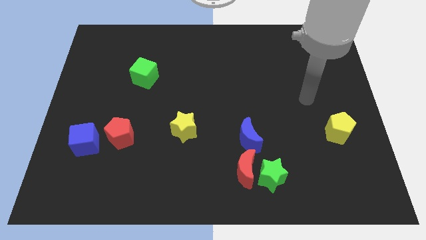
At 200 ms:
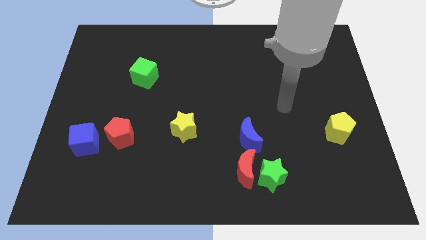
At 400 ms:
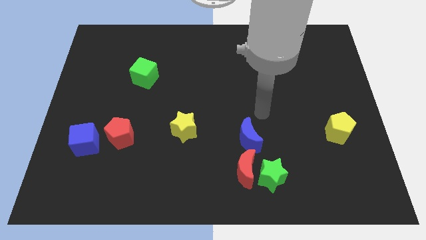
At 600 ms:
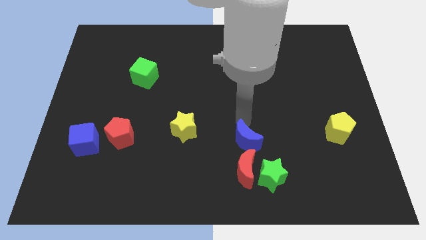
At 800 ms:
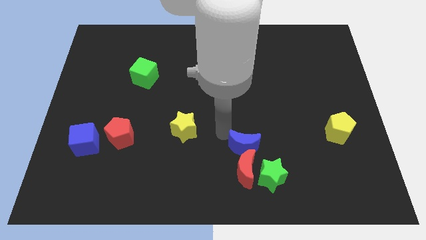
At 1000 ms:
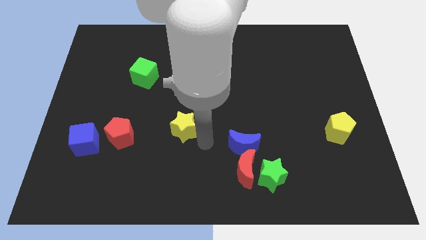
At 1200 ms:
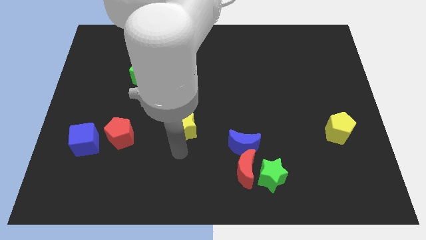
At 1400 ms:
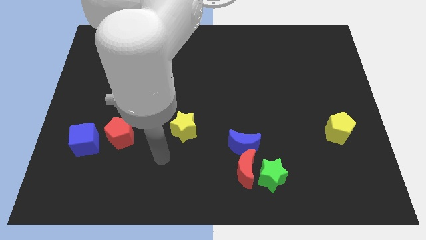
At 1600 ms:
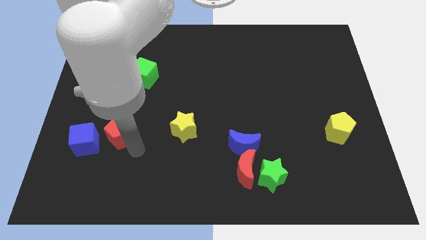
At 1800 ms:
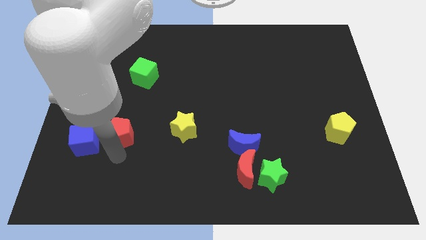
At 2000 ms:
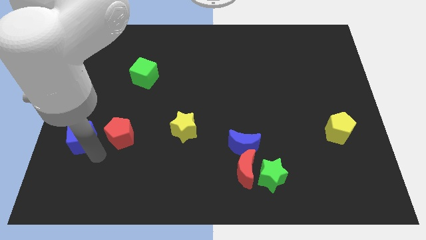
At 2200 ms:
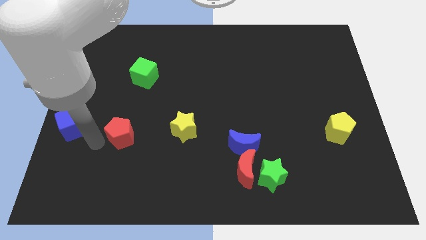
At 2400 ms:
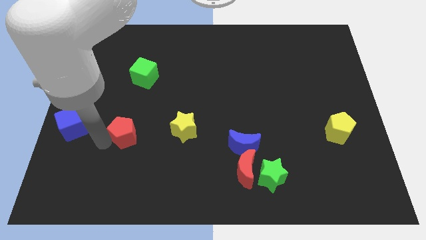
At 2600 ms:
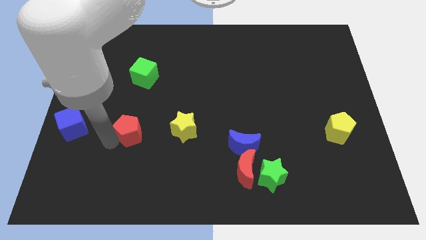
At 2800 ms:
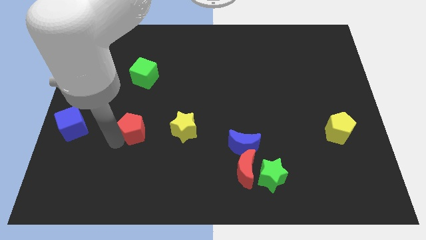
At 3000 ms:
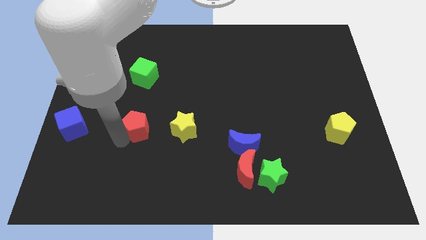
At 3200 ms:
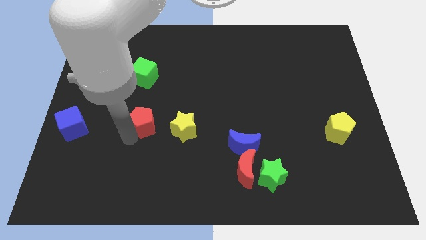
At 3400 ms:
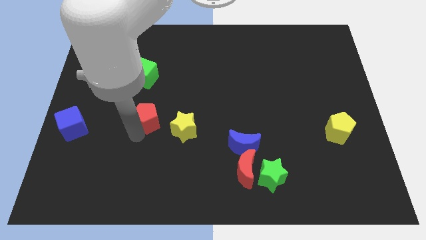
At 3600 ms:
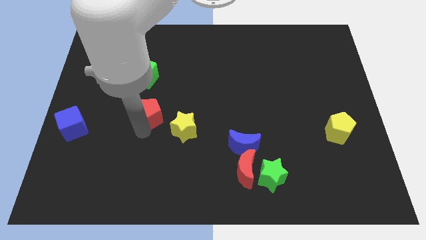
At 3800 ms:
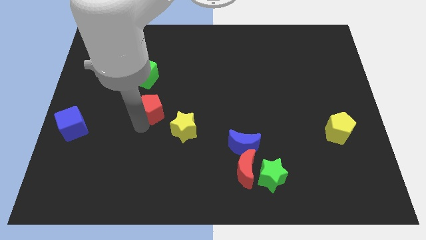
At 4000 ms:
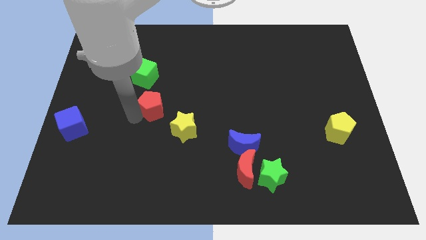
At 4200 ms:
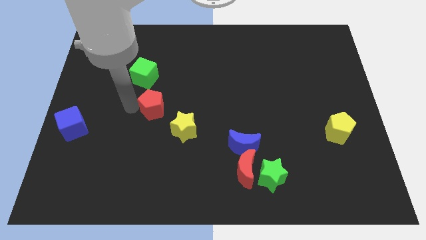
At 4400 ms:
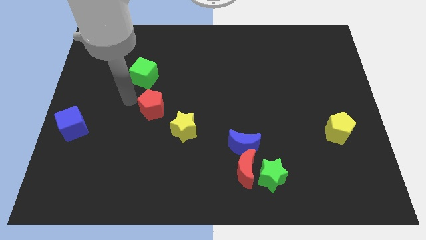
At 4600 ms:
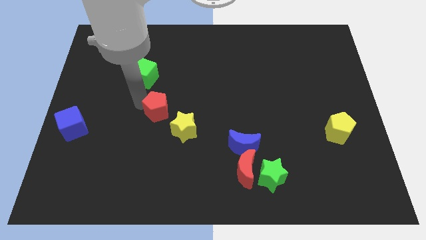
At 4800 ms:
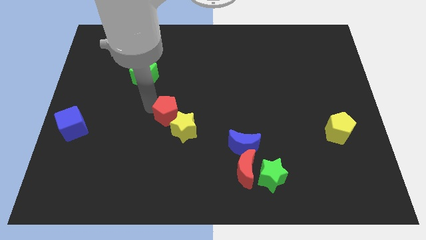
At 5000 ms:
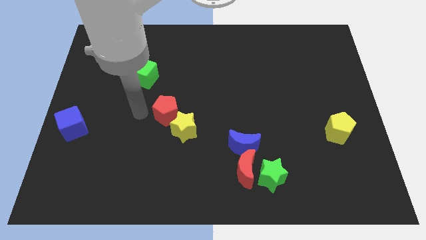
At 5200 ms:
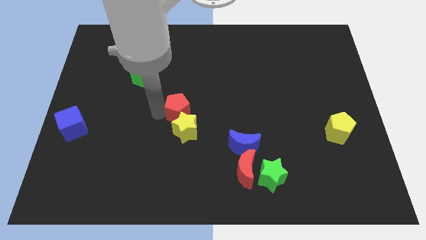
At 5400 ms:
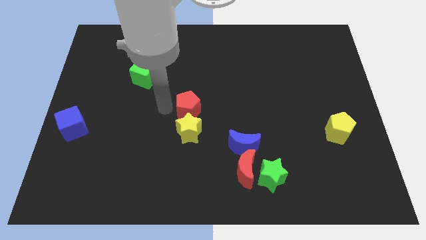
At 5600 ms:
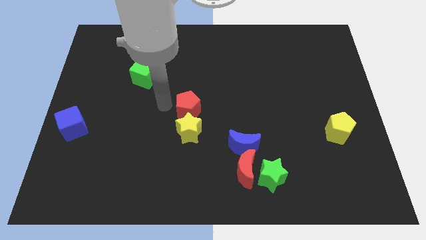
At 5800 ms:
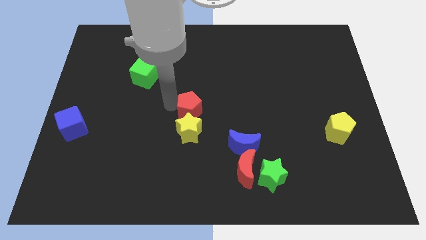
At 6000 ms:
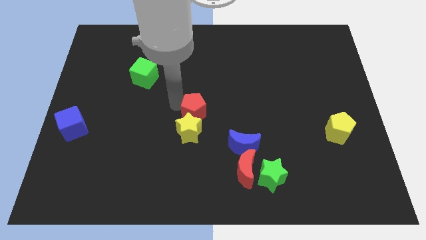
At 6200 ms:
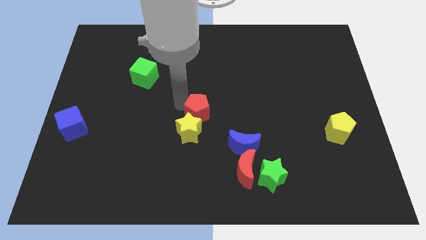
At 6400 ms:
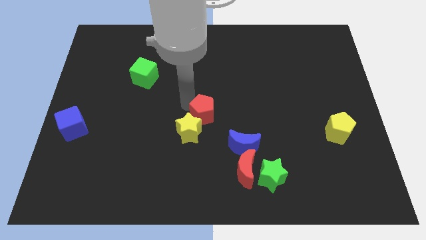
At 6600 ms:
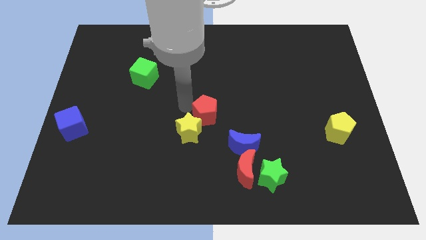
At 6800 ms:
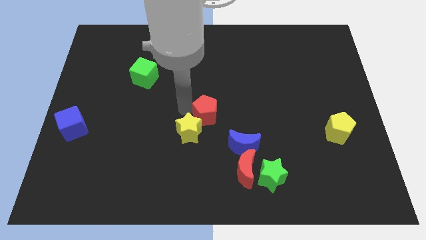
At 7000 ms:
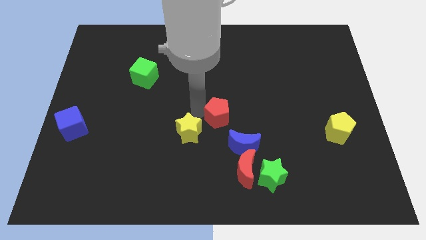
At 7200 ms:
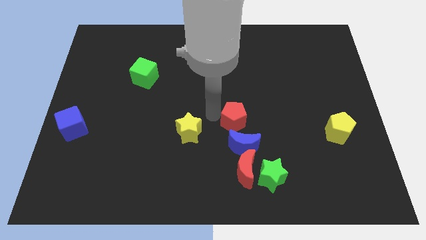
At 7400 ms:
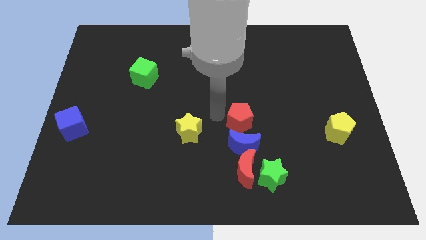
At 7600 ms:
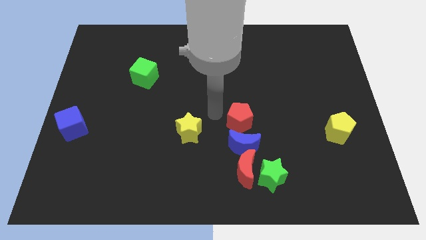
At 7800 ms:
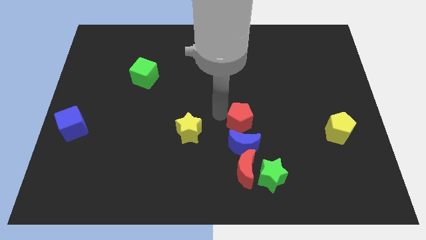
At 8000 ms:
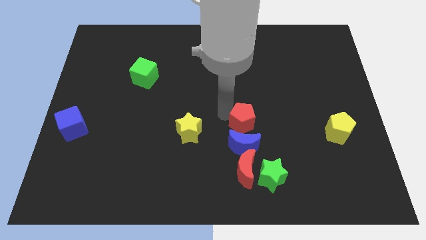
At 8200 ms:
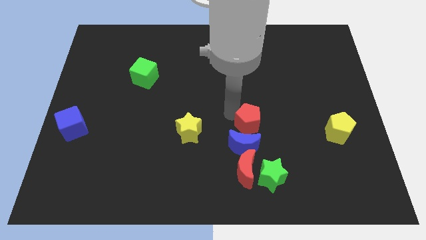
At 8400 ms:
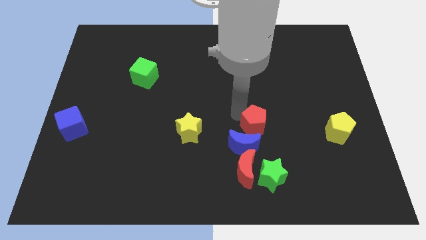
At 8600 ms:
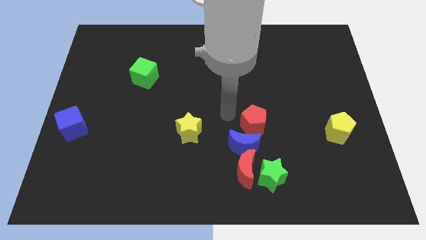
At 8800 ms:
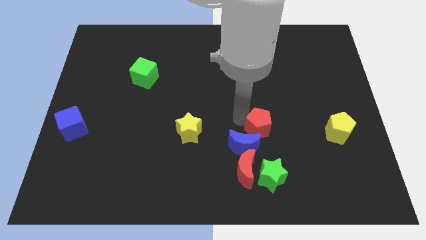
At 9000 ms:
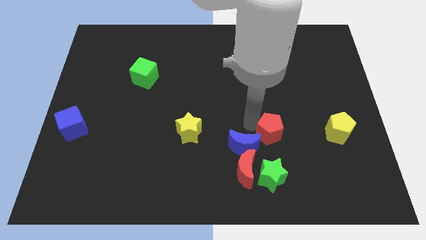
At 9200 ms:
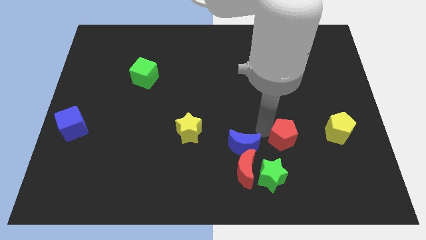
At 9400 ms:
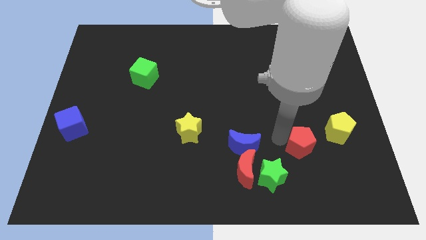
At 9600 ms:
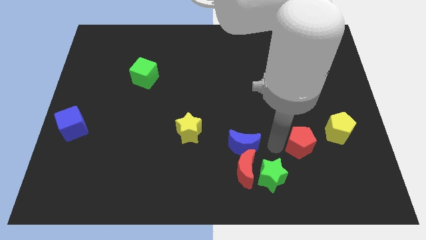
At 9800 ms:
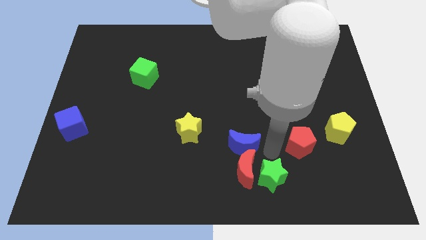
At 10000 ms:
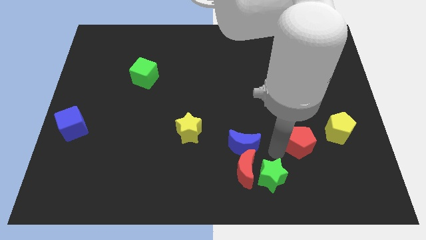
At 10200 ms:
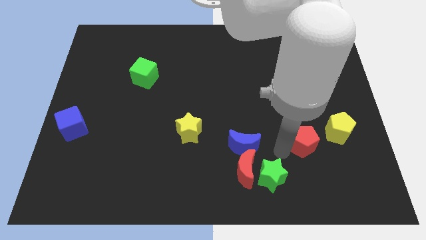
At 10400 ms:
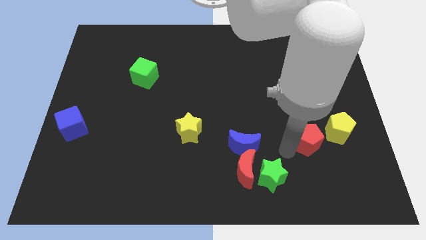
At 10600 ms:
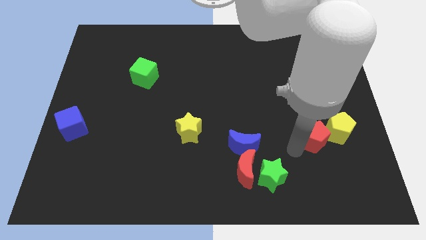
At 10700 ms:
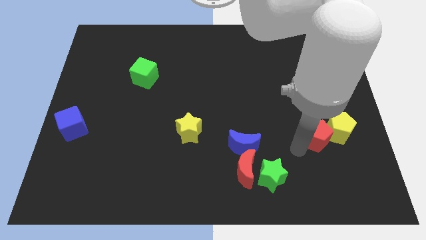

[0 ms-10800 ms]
slide the red pentagon close to the yellow pentagon

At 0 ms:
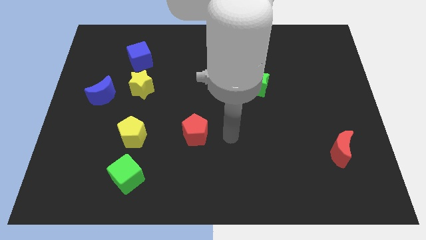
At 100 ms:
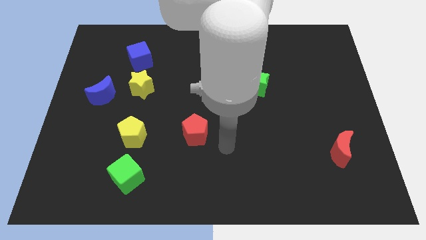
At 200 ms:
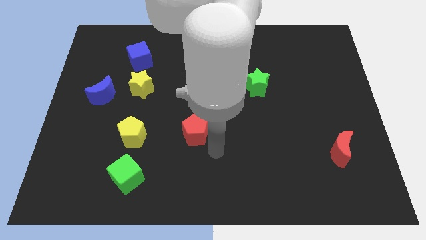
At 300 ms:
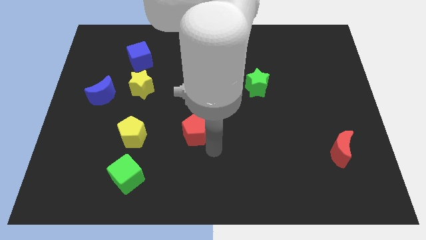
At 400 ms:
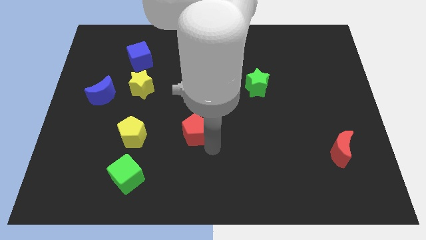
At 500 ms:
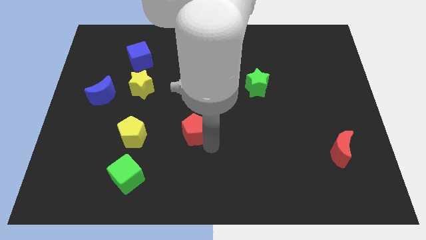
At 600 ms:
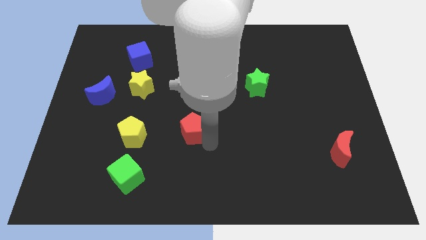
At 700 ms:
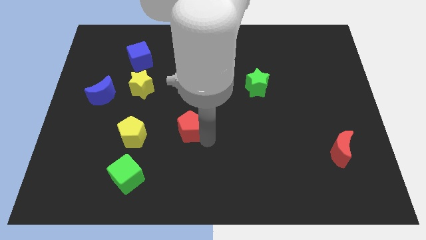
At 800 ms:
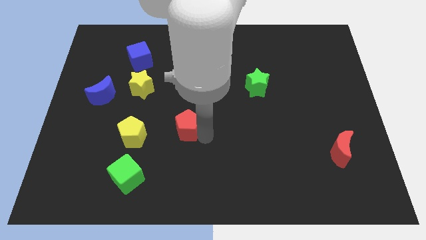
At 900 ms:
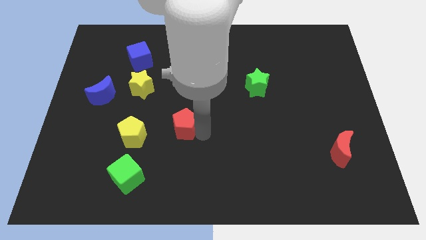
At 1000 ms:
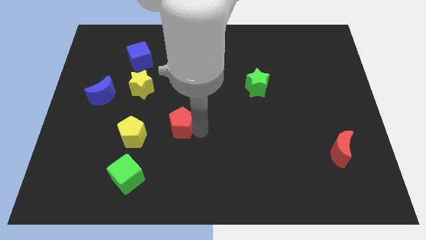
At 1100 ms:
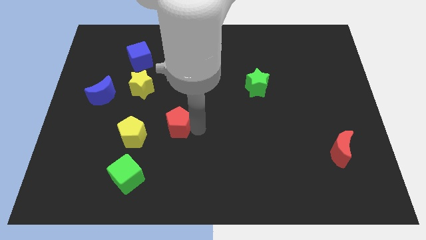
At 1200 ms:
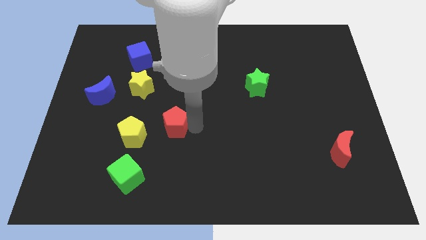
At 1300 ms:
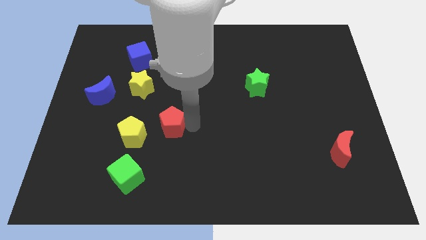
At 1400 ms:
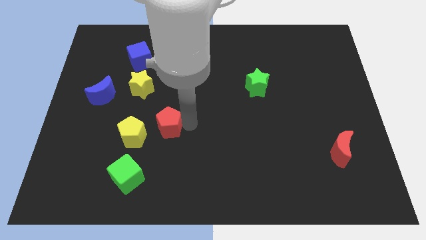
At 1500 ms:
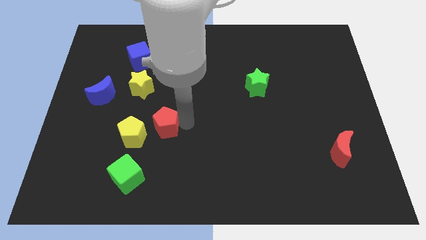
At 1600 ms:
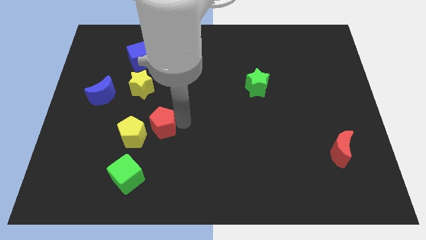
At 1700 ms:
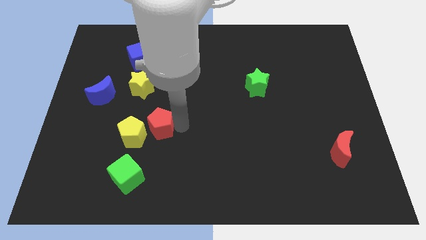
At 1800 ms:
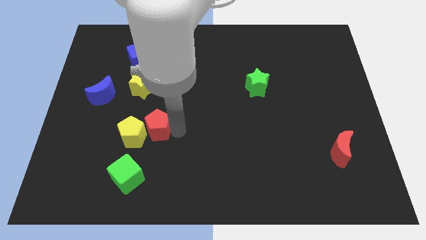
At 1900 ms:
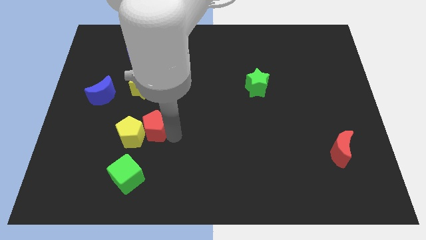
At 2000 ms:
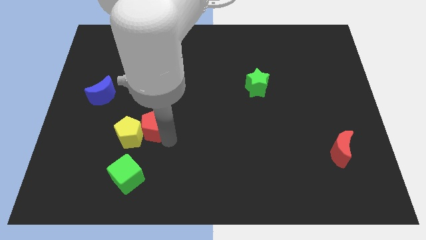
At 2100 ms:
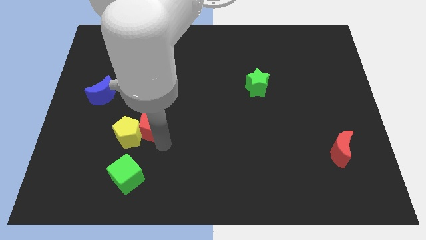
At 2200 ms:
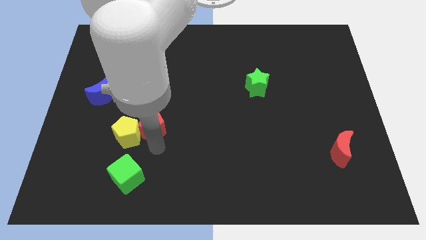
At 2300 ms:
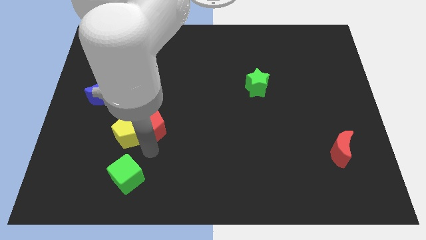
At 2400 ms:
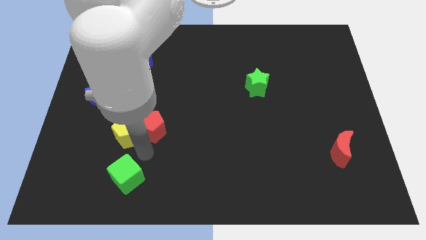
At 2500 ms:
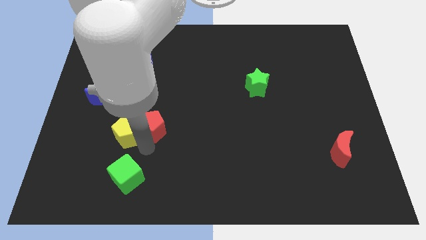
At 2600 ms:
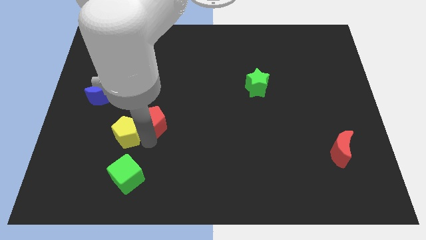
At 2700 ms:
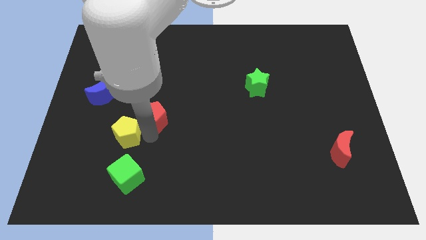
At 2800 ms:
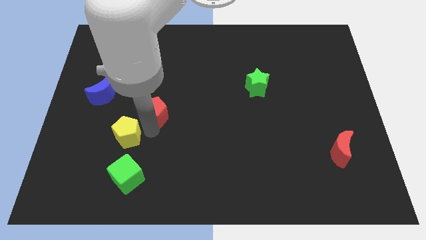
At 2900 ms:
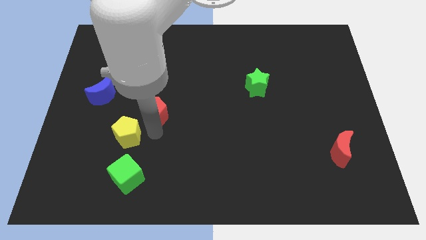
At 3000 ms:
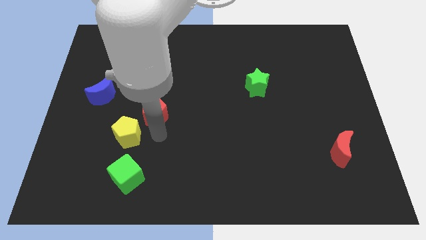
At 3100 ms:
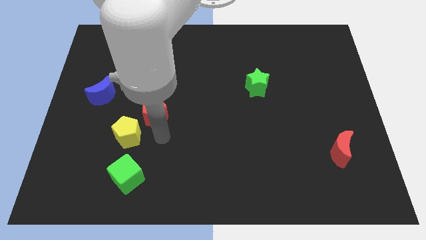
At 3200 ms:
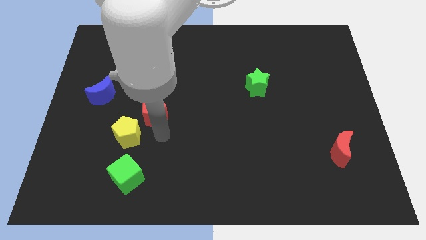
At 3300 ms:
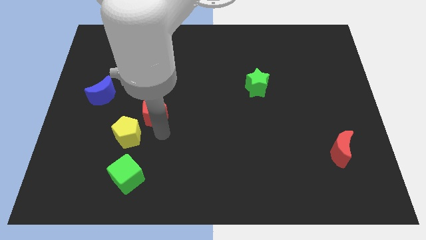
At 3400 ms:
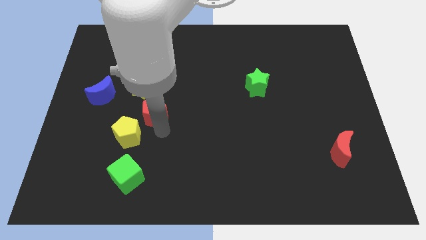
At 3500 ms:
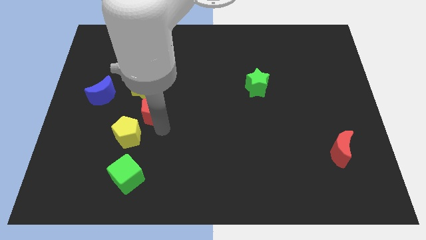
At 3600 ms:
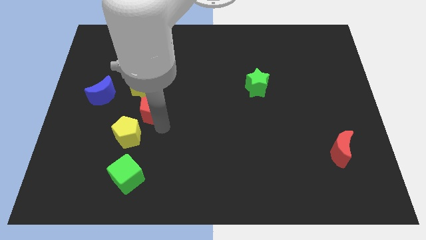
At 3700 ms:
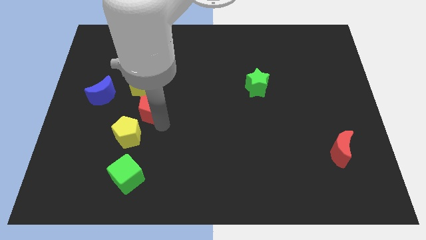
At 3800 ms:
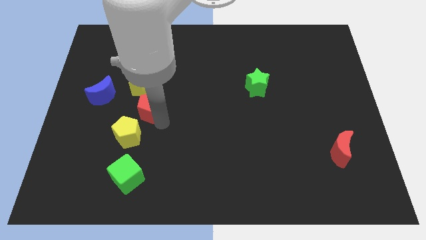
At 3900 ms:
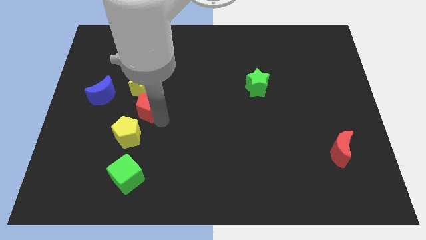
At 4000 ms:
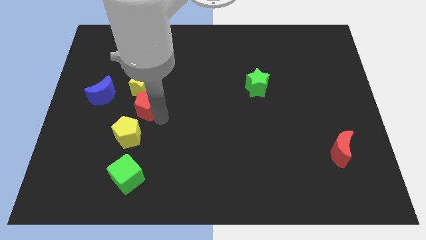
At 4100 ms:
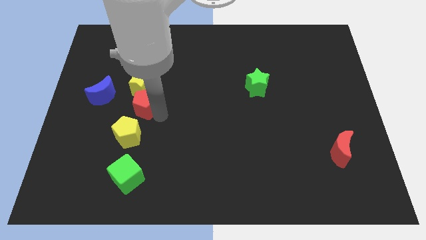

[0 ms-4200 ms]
push the red pentagon towards the yellow star
